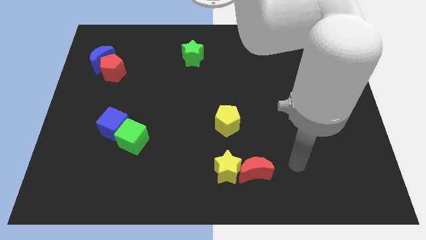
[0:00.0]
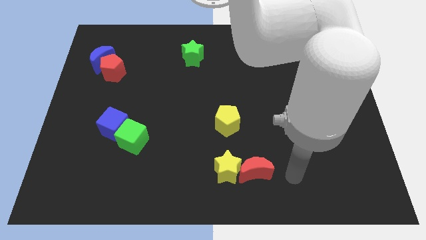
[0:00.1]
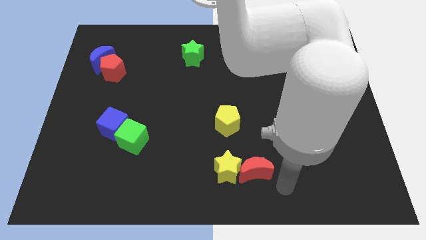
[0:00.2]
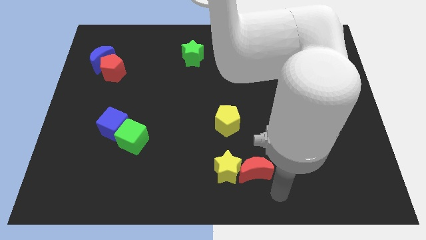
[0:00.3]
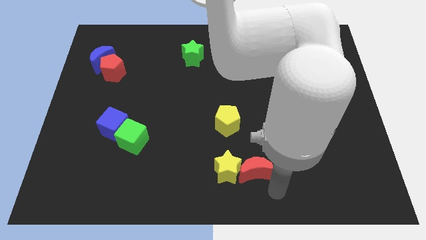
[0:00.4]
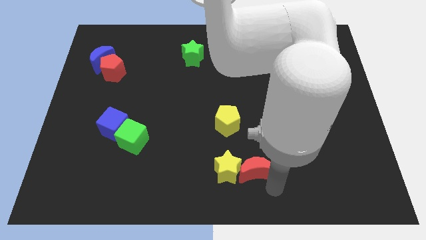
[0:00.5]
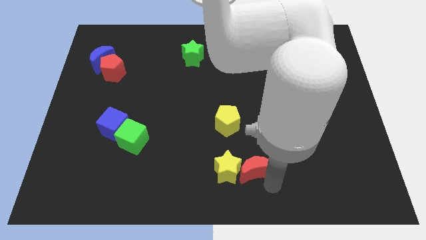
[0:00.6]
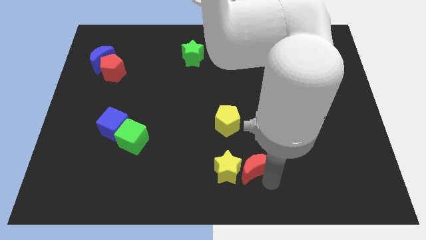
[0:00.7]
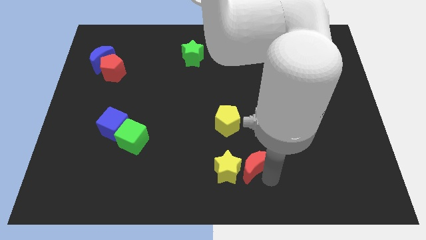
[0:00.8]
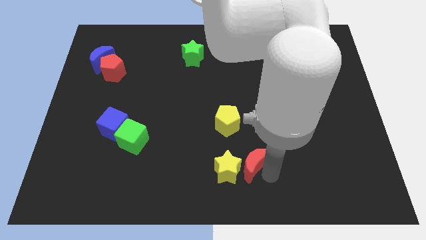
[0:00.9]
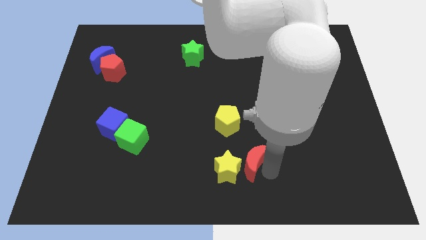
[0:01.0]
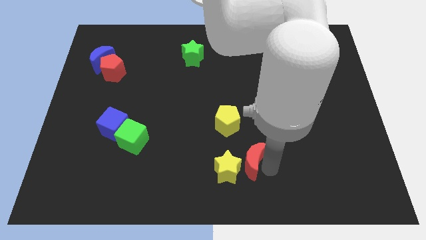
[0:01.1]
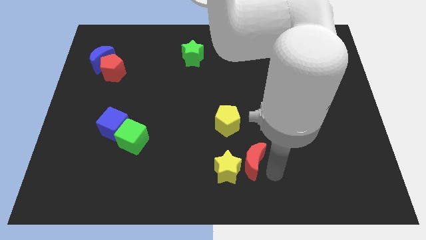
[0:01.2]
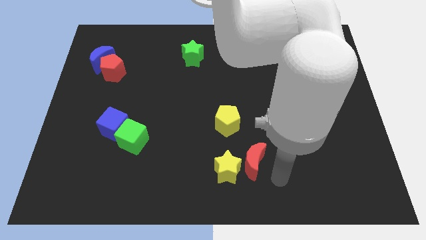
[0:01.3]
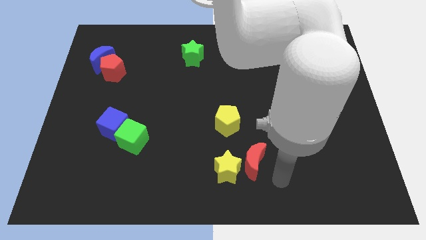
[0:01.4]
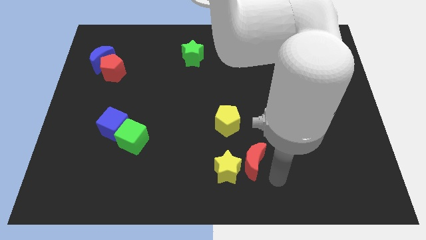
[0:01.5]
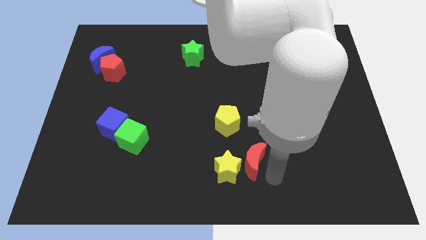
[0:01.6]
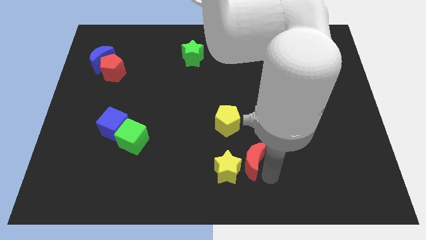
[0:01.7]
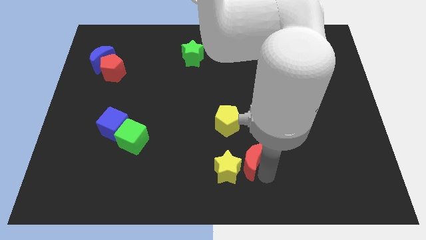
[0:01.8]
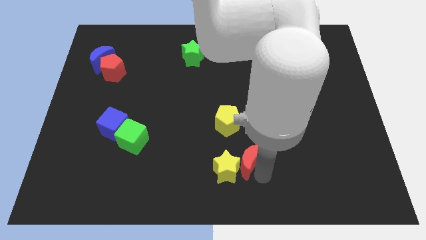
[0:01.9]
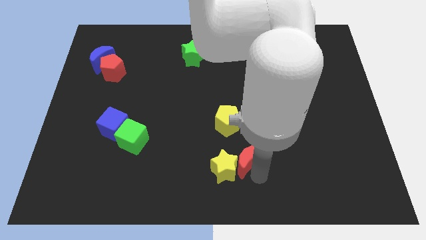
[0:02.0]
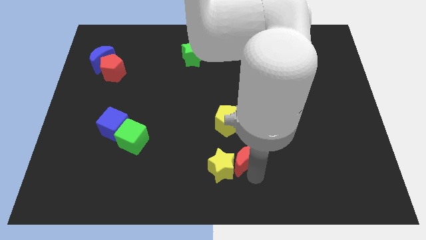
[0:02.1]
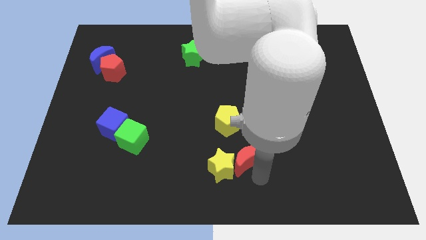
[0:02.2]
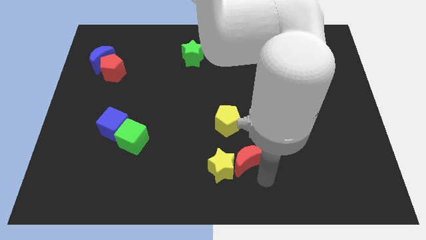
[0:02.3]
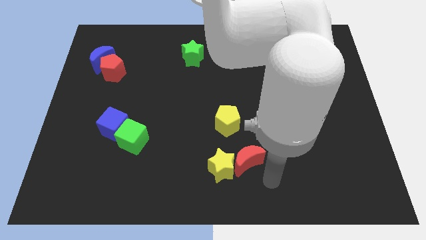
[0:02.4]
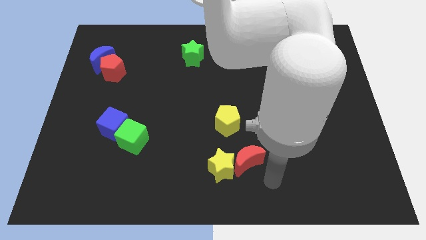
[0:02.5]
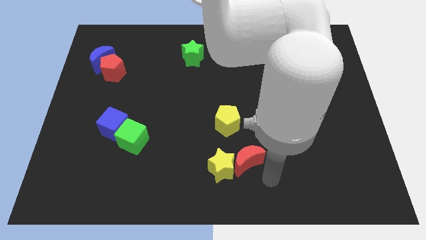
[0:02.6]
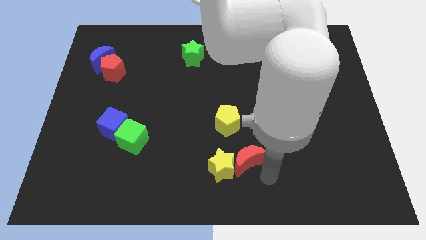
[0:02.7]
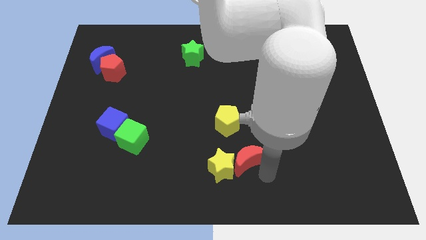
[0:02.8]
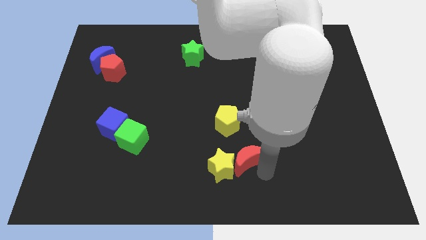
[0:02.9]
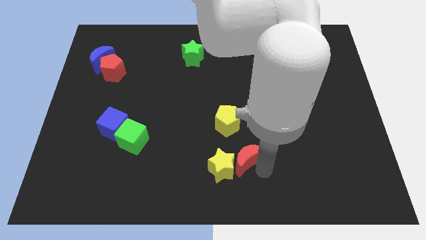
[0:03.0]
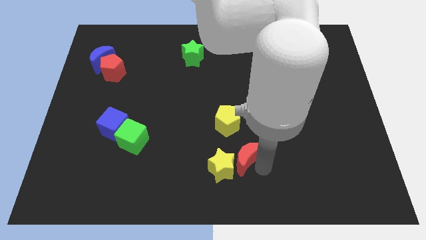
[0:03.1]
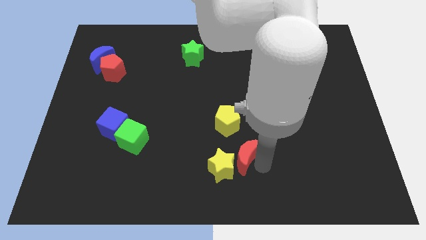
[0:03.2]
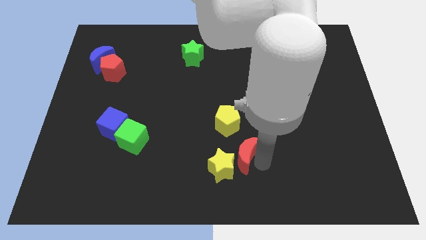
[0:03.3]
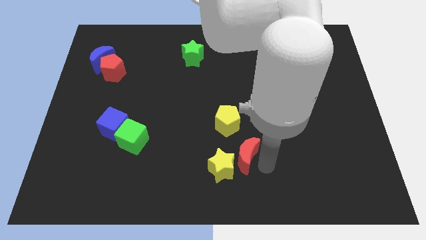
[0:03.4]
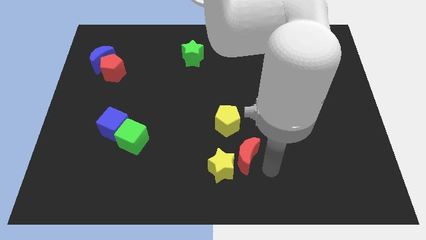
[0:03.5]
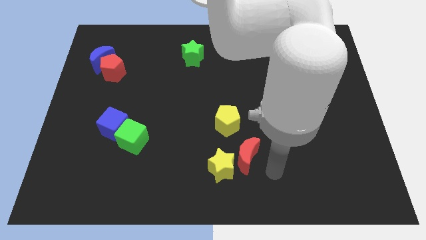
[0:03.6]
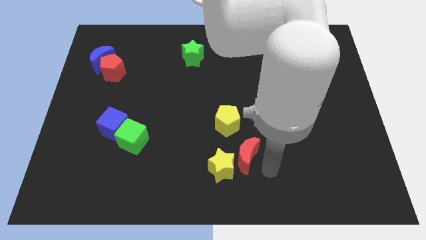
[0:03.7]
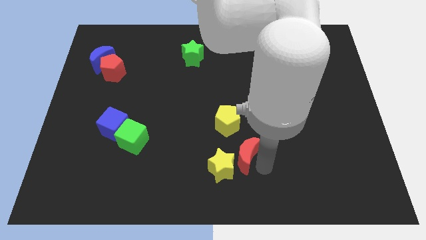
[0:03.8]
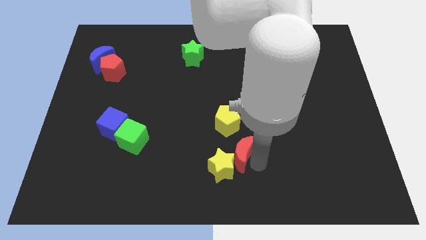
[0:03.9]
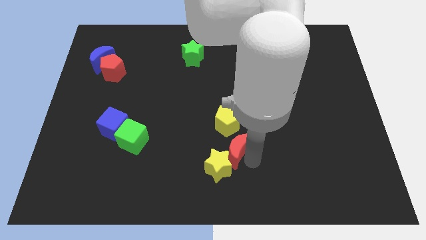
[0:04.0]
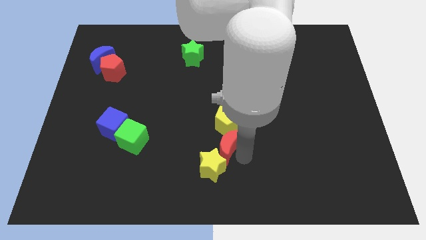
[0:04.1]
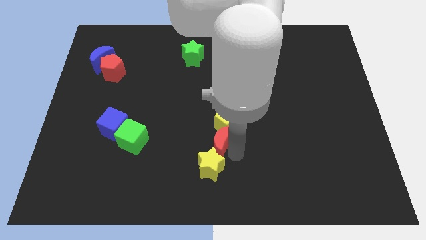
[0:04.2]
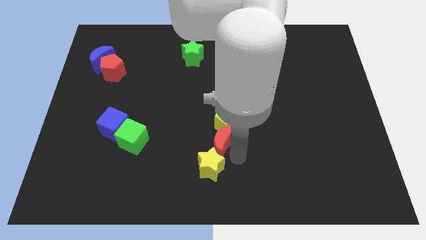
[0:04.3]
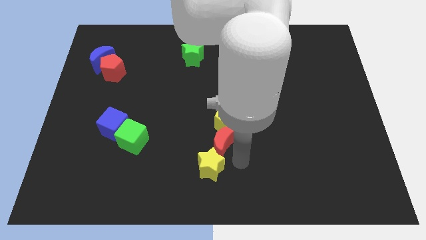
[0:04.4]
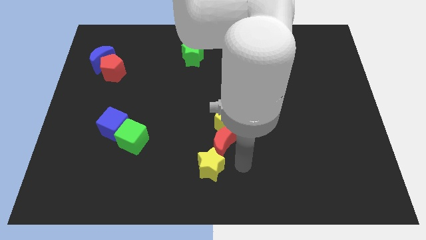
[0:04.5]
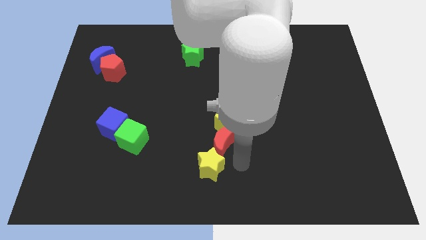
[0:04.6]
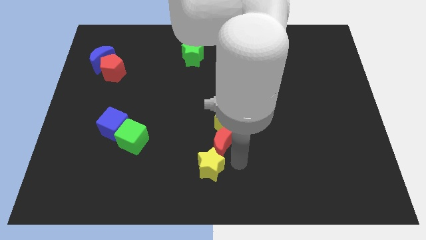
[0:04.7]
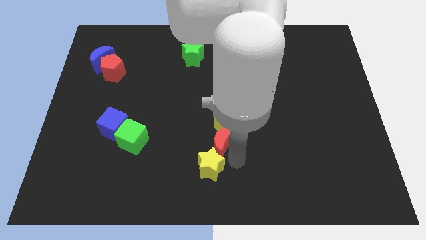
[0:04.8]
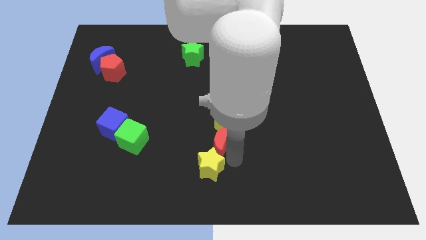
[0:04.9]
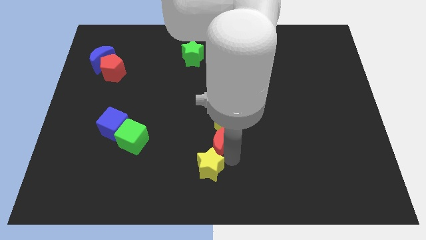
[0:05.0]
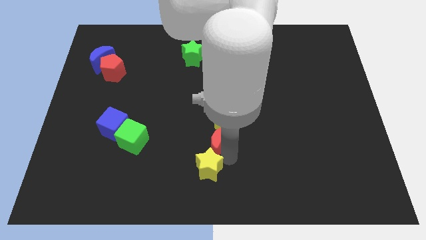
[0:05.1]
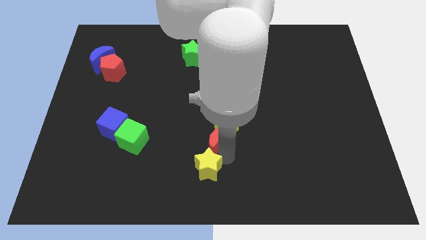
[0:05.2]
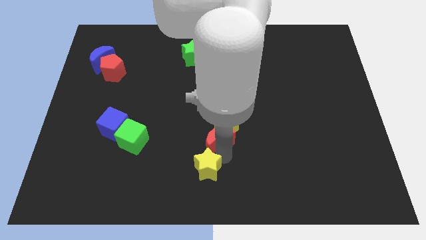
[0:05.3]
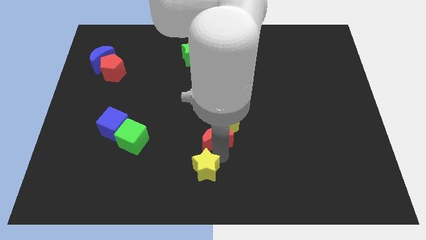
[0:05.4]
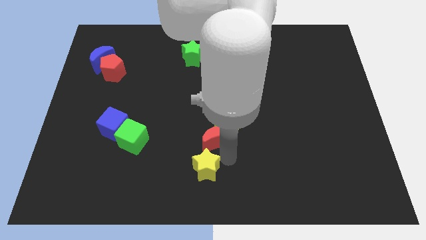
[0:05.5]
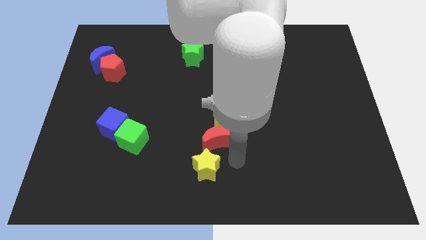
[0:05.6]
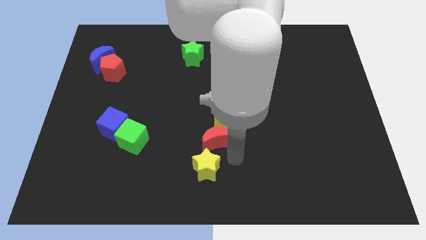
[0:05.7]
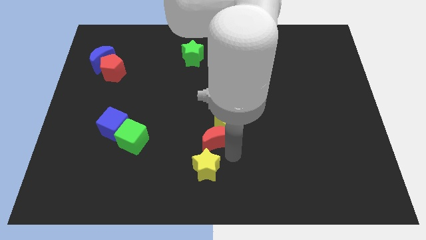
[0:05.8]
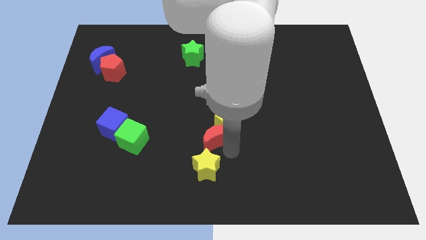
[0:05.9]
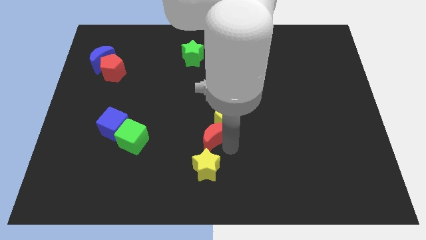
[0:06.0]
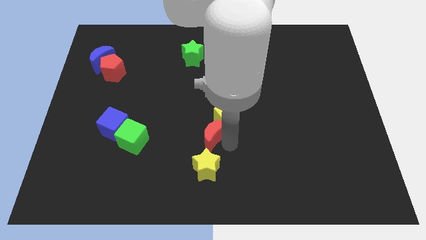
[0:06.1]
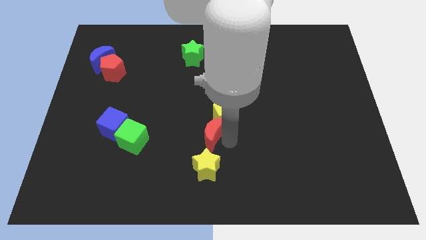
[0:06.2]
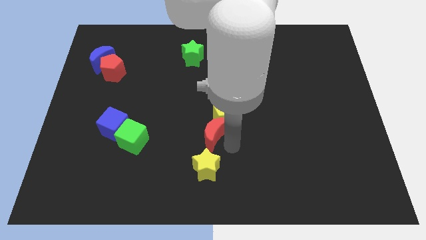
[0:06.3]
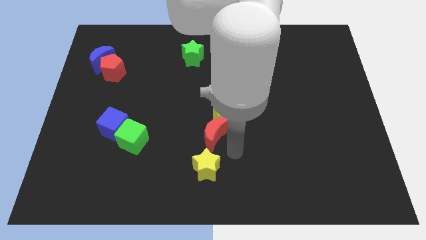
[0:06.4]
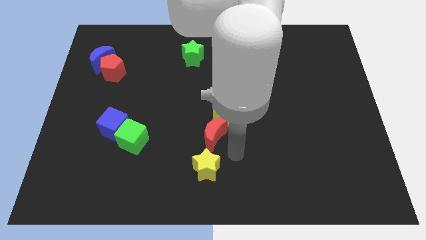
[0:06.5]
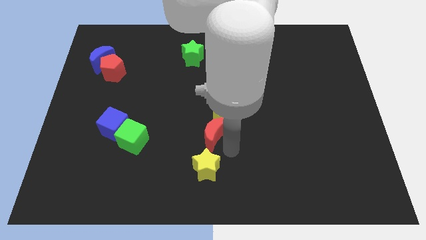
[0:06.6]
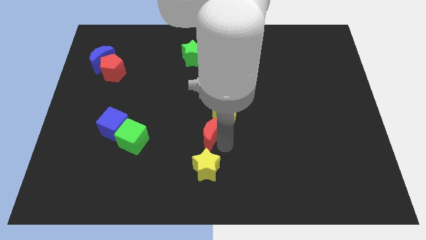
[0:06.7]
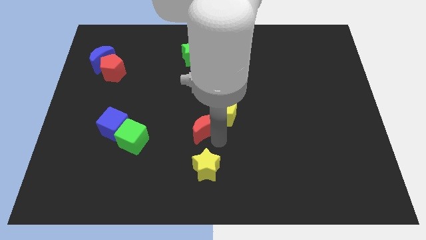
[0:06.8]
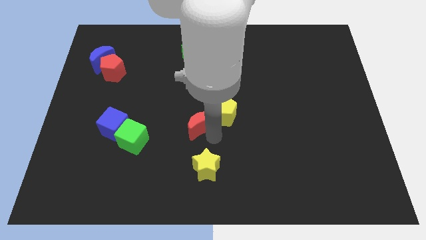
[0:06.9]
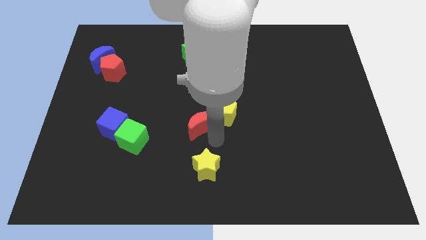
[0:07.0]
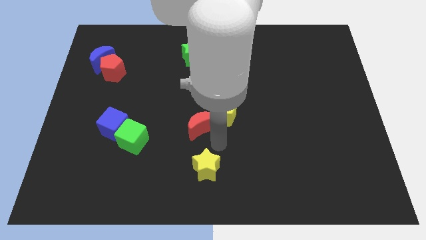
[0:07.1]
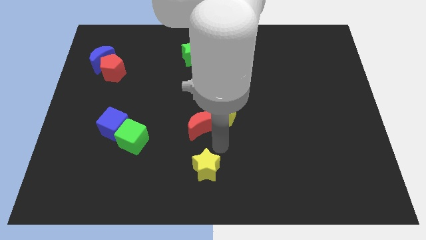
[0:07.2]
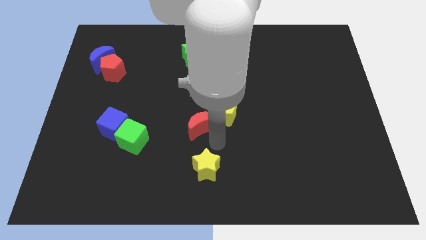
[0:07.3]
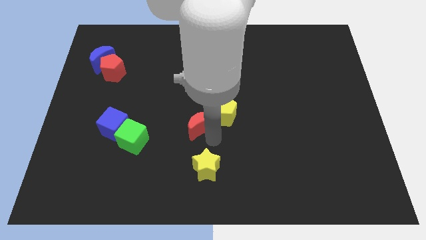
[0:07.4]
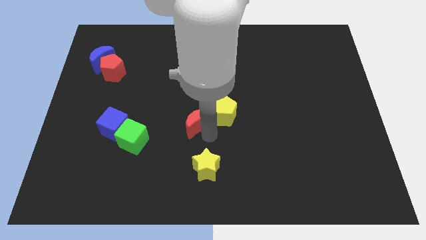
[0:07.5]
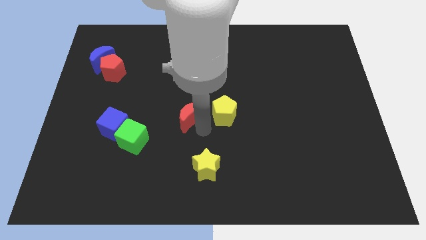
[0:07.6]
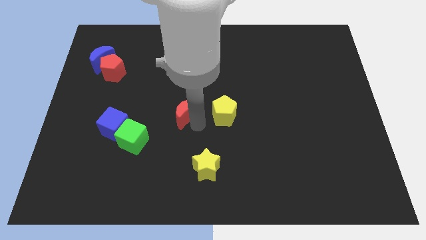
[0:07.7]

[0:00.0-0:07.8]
slide the red moon upwards and to the left diagonally

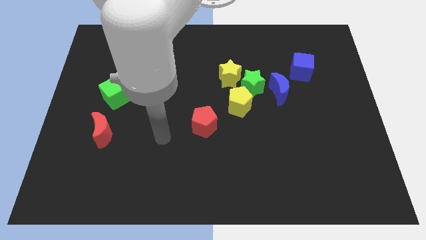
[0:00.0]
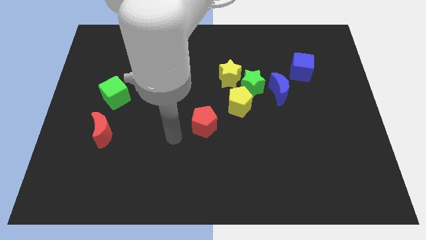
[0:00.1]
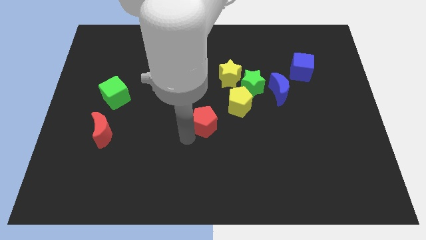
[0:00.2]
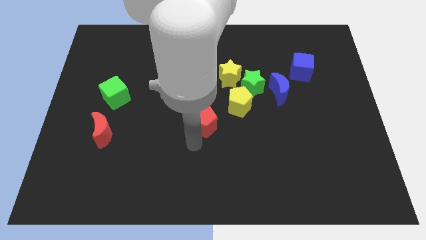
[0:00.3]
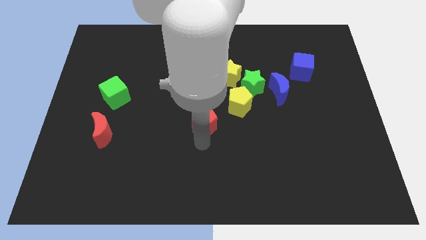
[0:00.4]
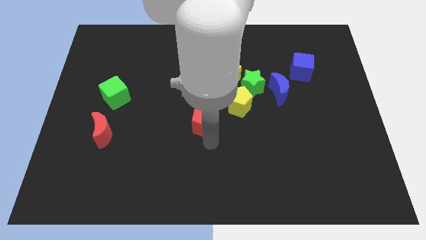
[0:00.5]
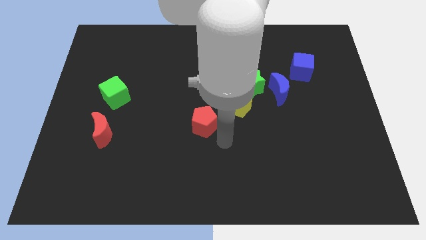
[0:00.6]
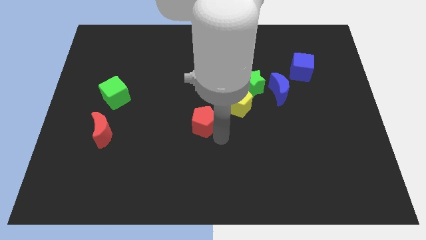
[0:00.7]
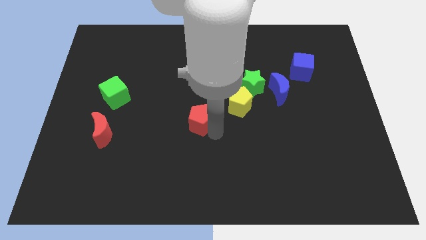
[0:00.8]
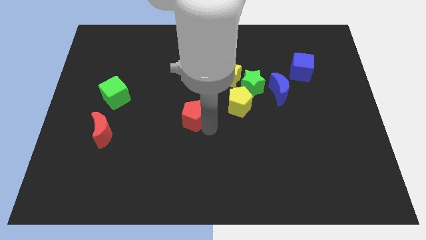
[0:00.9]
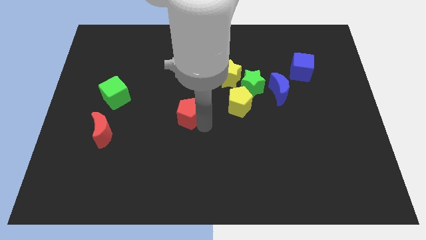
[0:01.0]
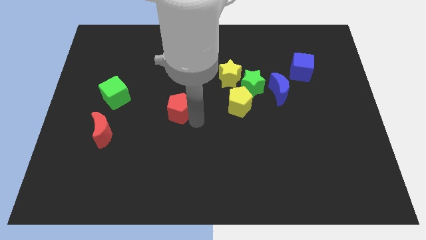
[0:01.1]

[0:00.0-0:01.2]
push the red pentagon up and then to the left a bit
